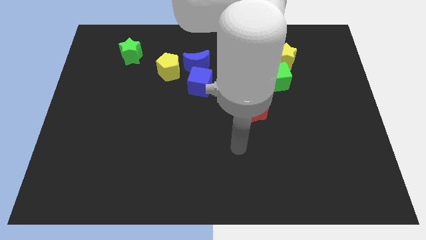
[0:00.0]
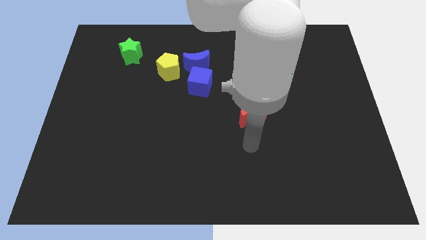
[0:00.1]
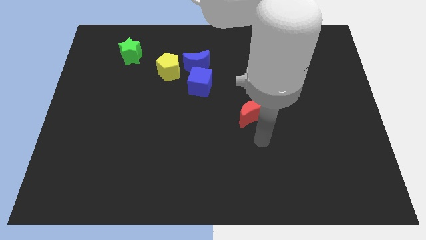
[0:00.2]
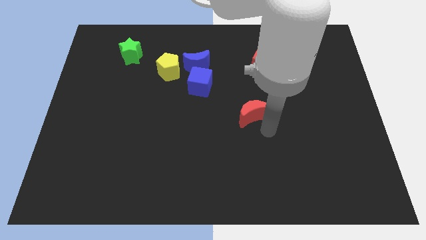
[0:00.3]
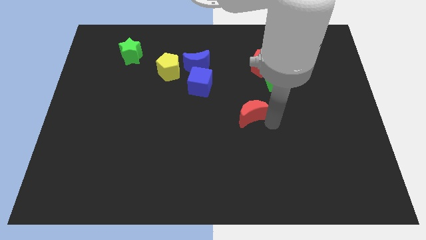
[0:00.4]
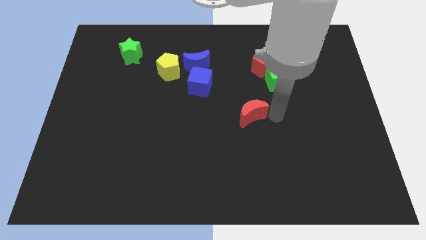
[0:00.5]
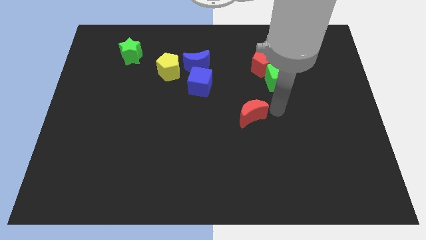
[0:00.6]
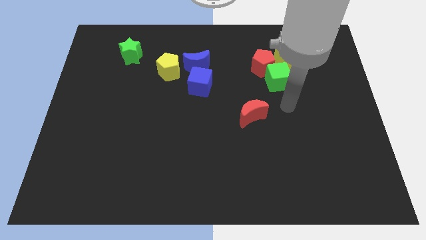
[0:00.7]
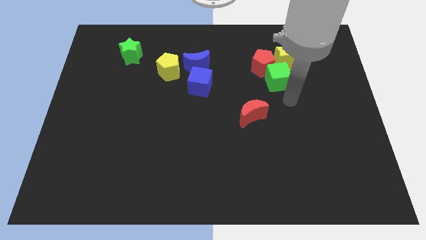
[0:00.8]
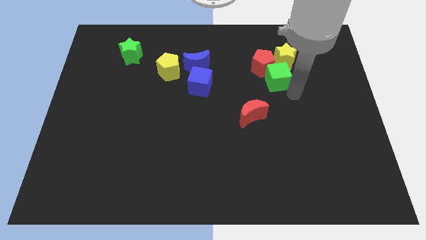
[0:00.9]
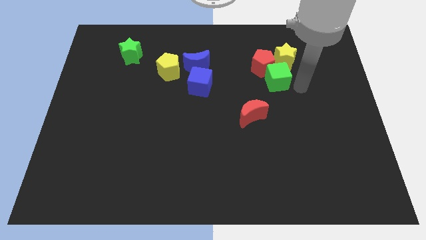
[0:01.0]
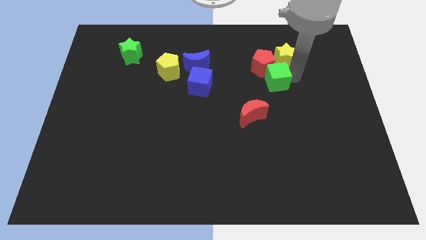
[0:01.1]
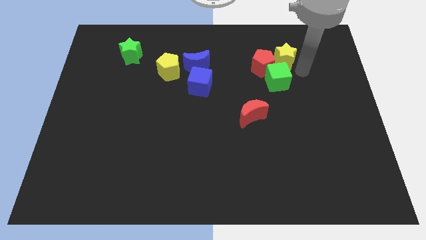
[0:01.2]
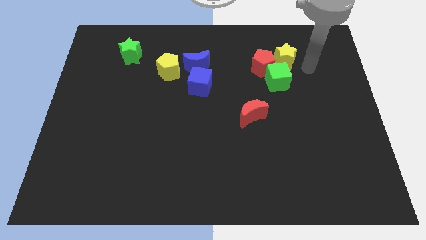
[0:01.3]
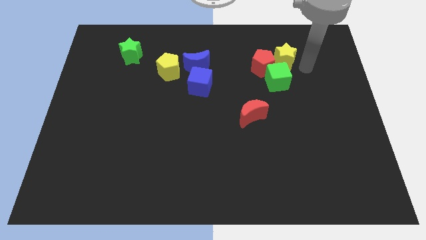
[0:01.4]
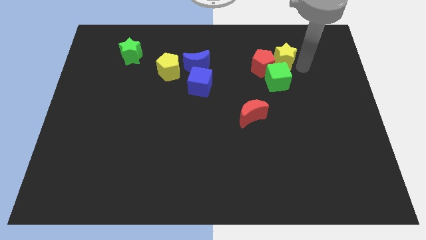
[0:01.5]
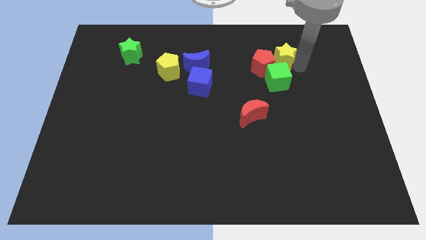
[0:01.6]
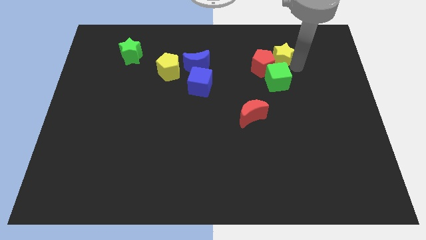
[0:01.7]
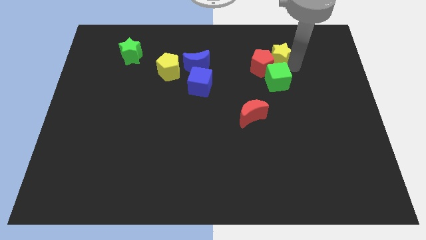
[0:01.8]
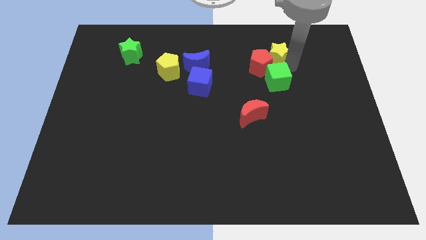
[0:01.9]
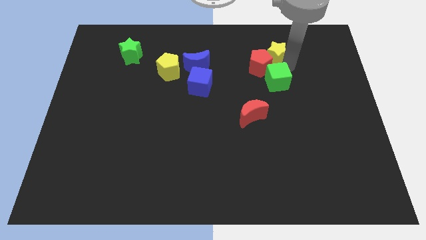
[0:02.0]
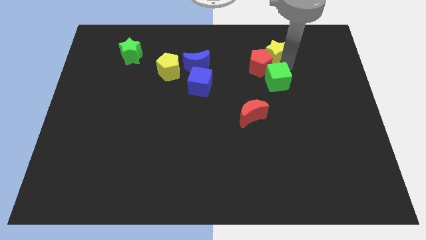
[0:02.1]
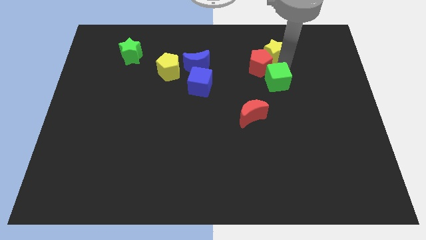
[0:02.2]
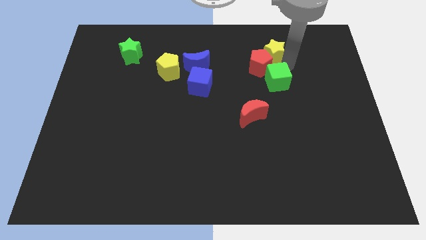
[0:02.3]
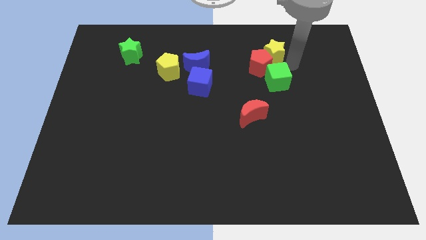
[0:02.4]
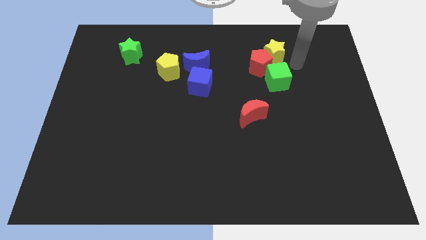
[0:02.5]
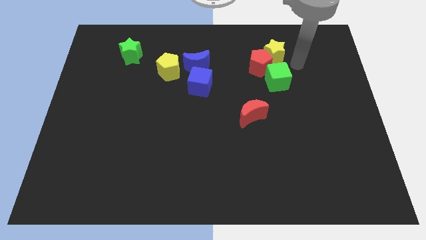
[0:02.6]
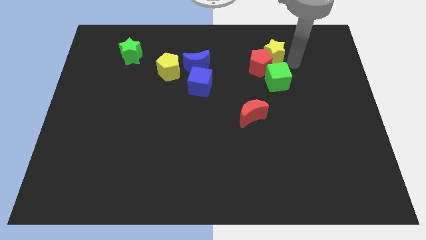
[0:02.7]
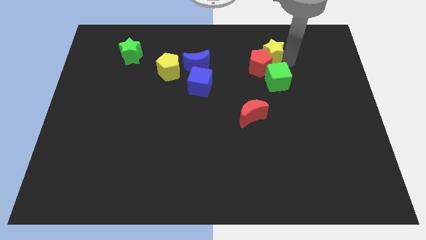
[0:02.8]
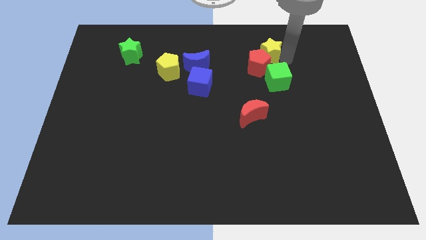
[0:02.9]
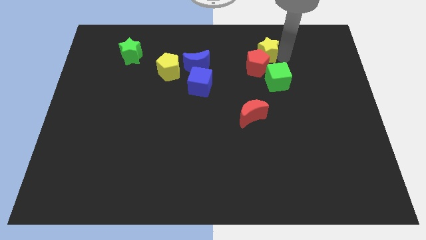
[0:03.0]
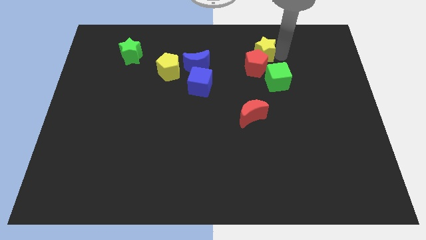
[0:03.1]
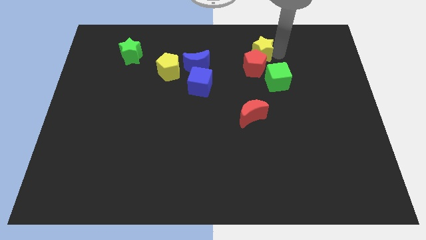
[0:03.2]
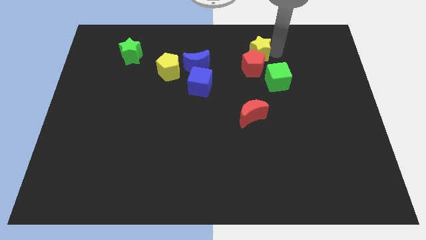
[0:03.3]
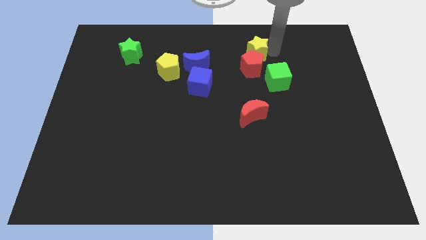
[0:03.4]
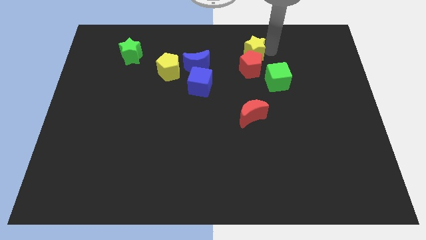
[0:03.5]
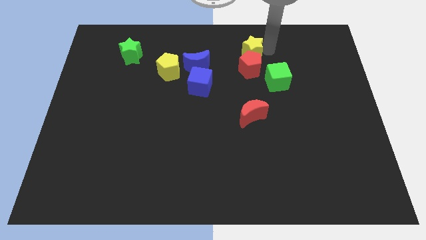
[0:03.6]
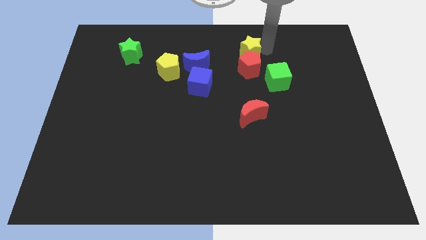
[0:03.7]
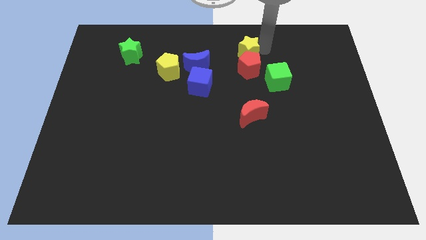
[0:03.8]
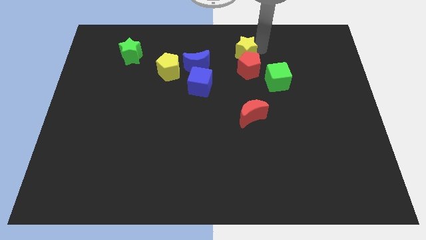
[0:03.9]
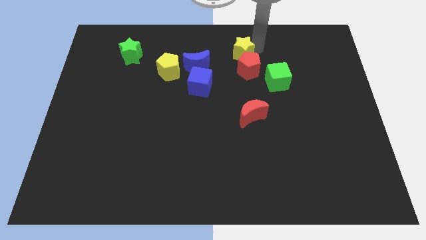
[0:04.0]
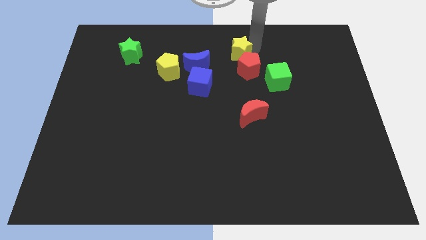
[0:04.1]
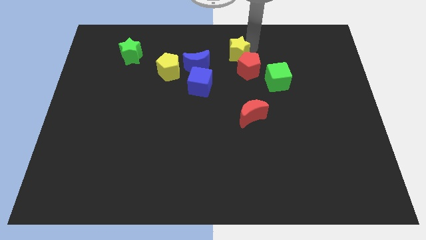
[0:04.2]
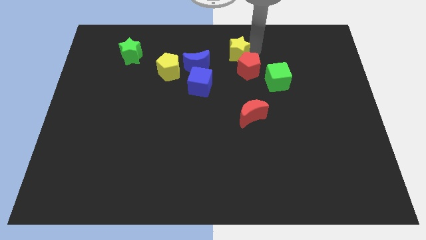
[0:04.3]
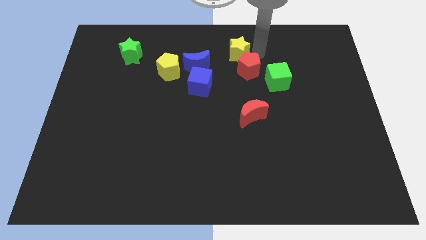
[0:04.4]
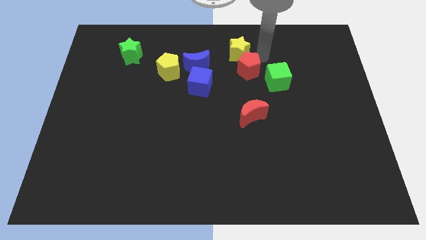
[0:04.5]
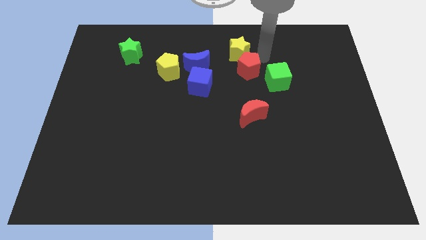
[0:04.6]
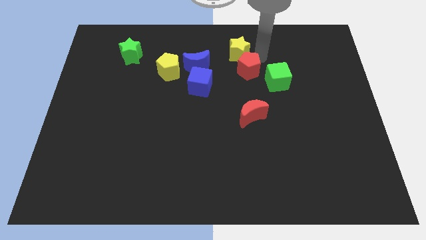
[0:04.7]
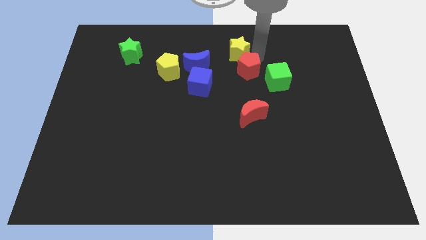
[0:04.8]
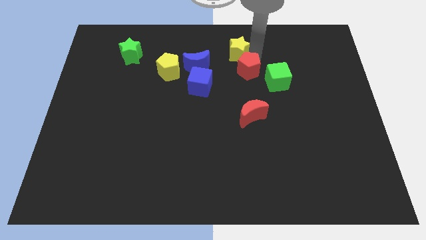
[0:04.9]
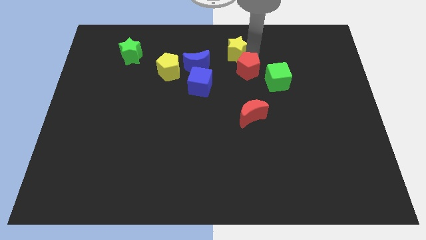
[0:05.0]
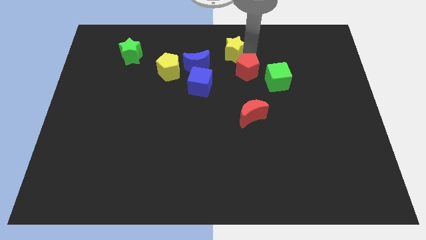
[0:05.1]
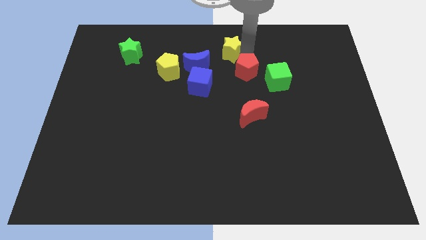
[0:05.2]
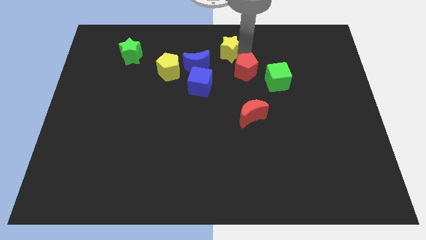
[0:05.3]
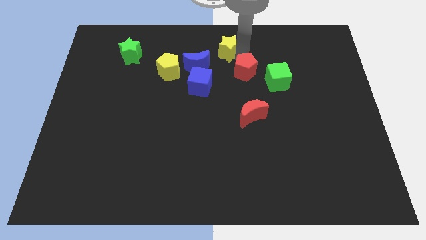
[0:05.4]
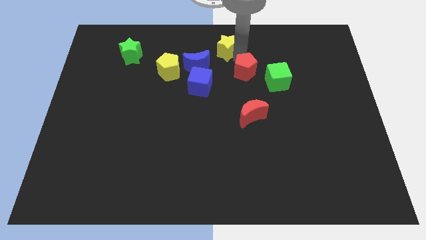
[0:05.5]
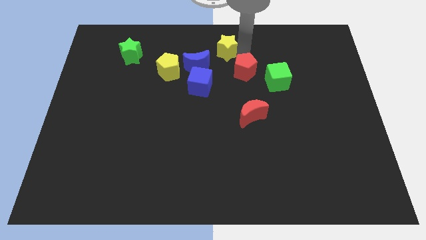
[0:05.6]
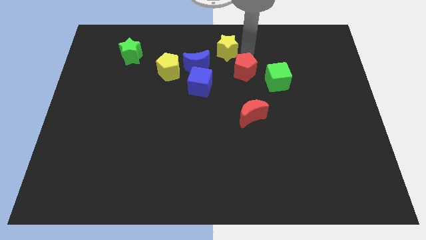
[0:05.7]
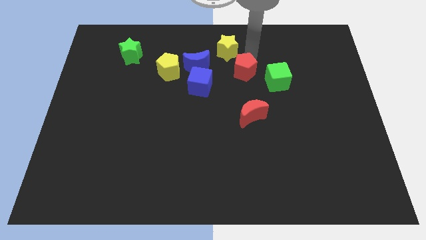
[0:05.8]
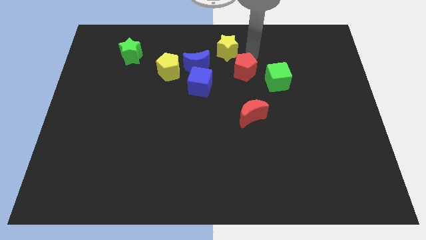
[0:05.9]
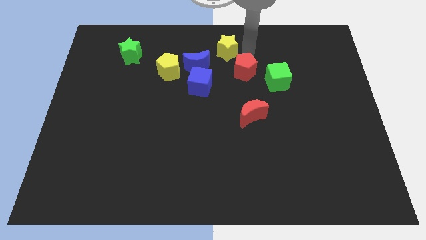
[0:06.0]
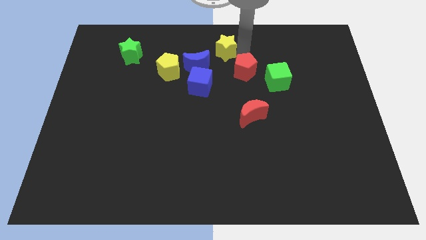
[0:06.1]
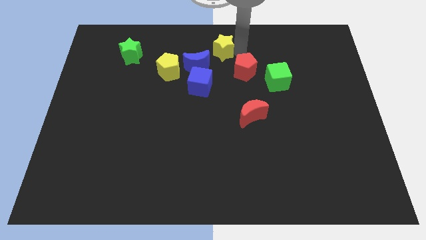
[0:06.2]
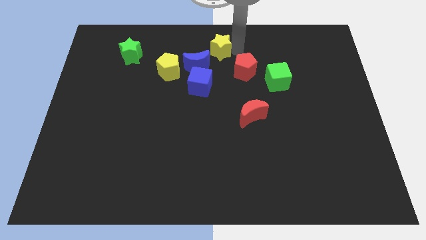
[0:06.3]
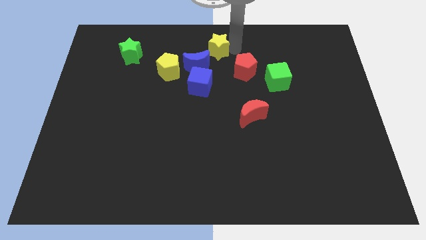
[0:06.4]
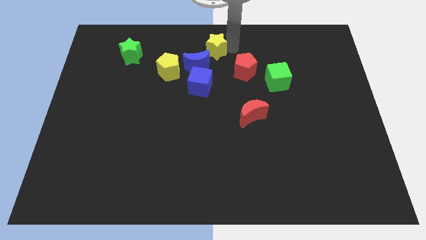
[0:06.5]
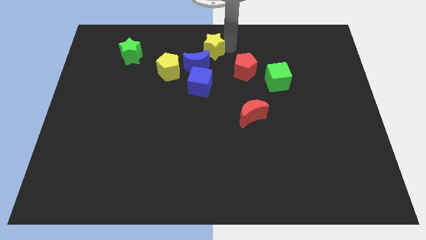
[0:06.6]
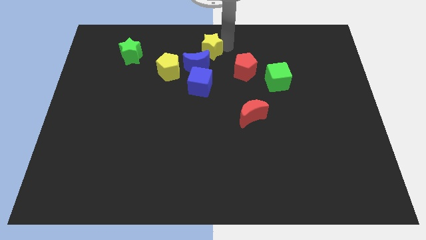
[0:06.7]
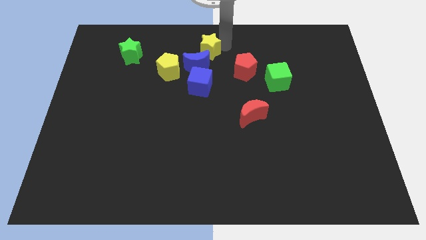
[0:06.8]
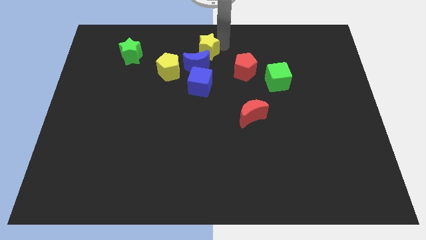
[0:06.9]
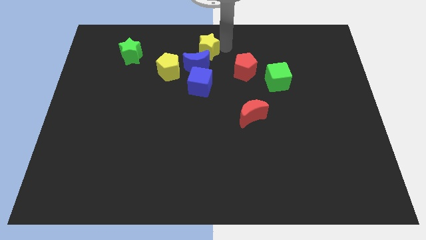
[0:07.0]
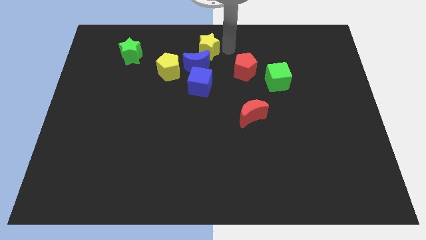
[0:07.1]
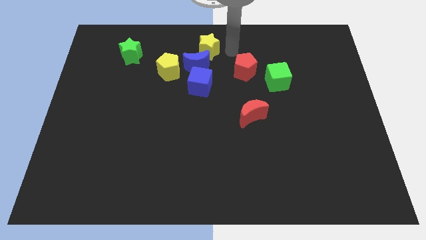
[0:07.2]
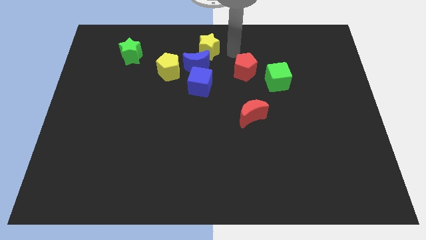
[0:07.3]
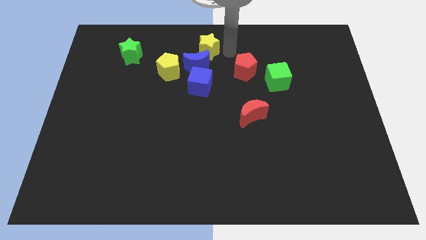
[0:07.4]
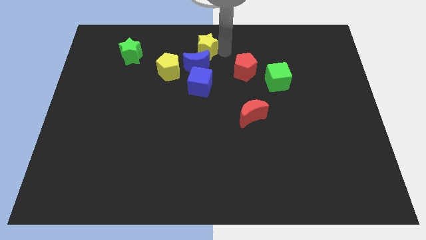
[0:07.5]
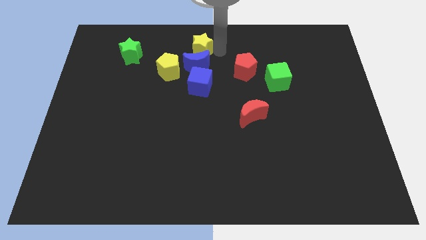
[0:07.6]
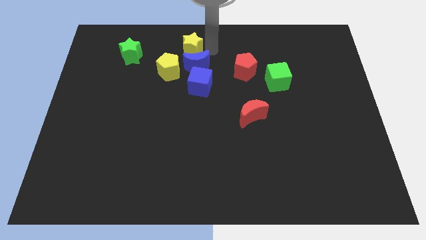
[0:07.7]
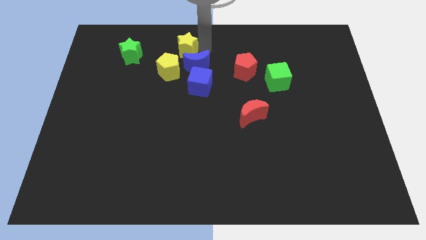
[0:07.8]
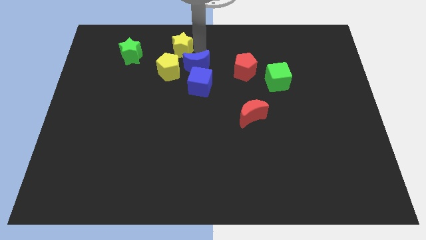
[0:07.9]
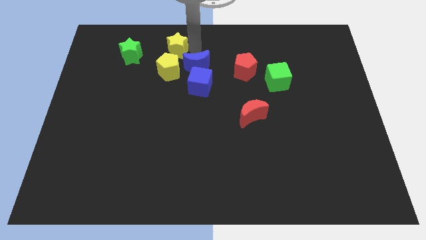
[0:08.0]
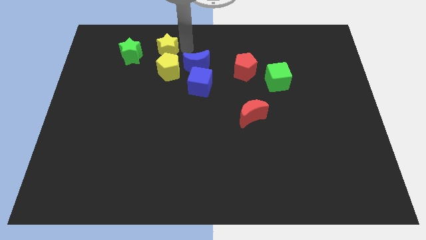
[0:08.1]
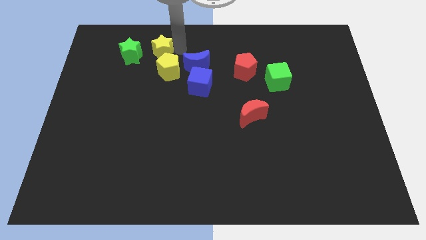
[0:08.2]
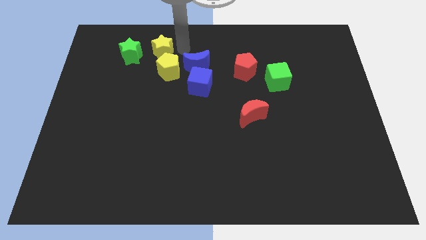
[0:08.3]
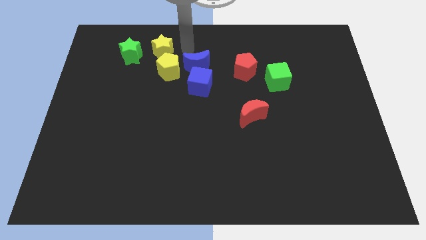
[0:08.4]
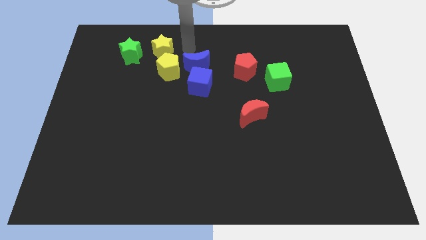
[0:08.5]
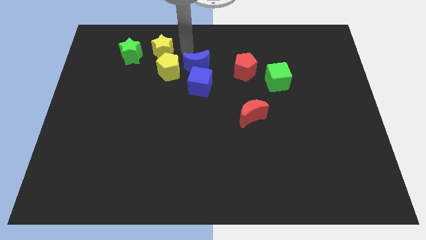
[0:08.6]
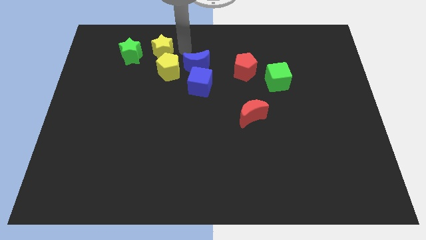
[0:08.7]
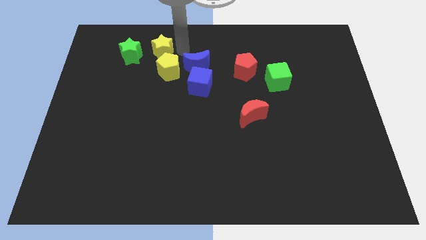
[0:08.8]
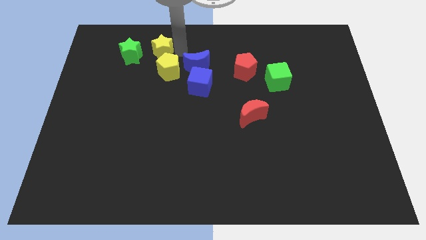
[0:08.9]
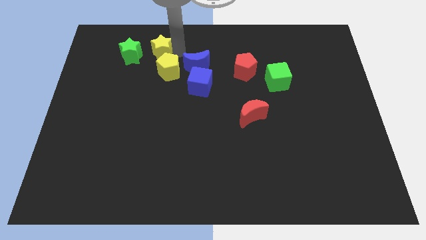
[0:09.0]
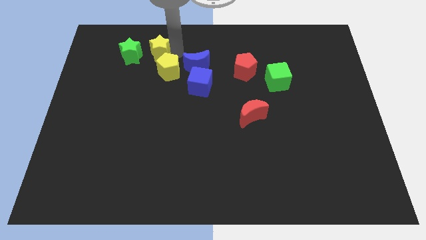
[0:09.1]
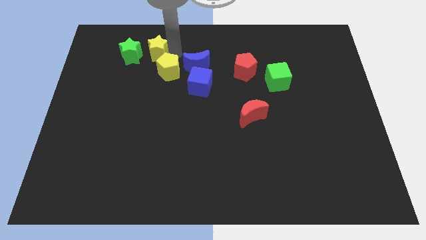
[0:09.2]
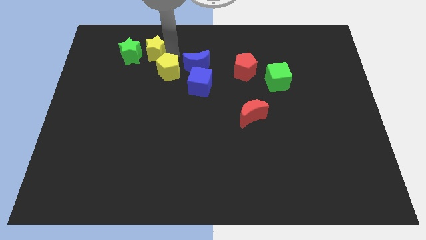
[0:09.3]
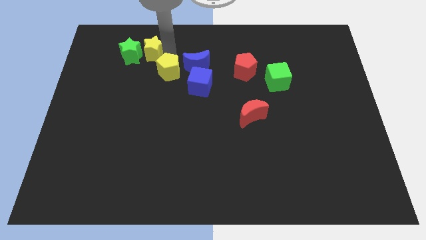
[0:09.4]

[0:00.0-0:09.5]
move the yellow star close to the green star
